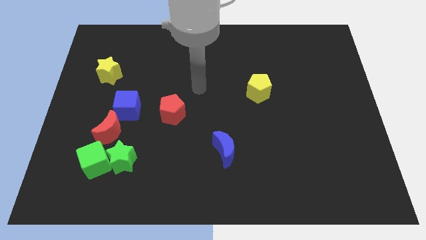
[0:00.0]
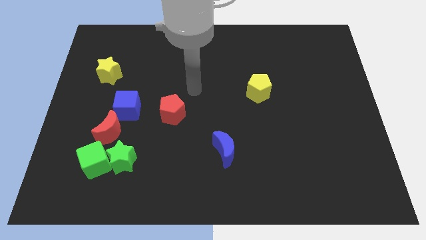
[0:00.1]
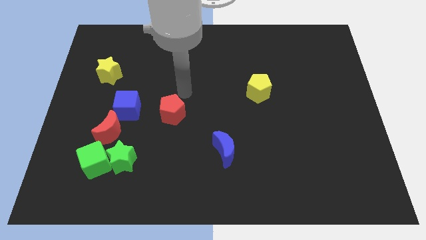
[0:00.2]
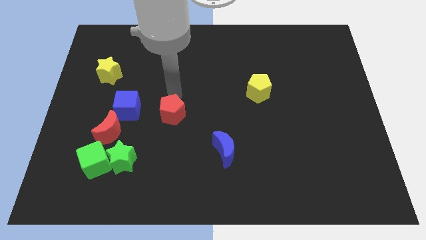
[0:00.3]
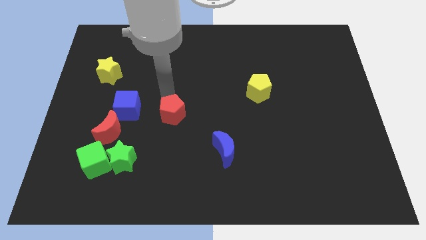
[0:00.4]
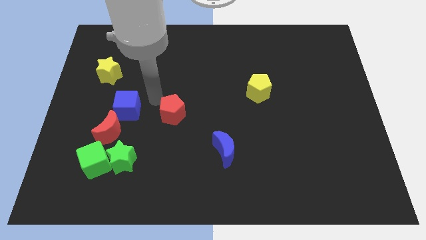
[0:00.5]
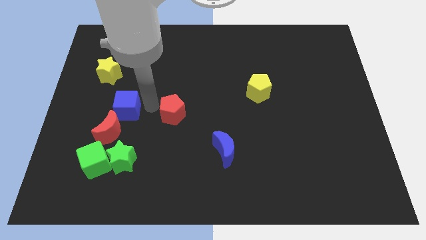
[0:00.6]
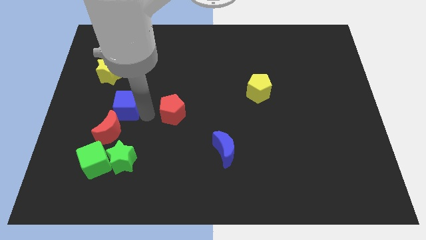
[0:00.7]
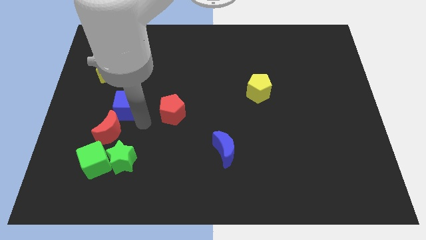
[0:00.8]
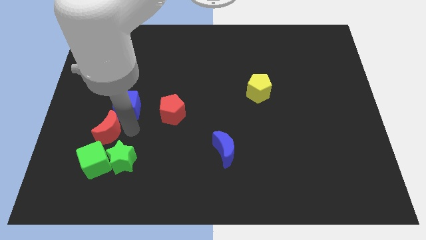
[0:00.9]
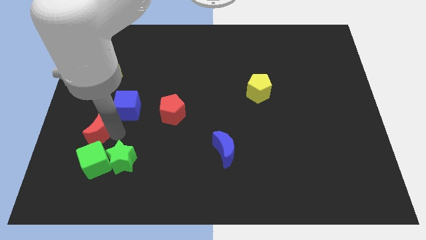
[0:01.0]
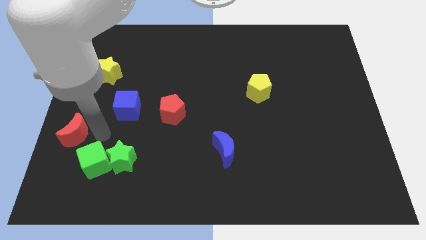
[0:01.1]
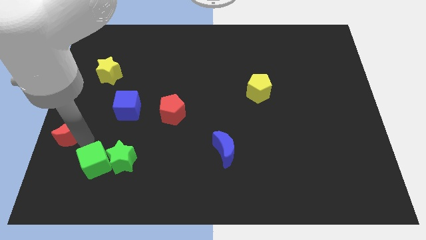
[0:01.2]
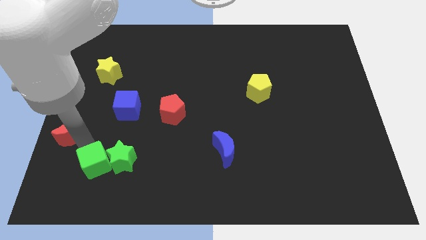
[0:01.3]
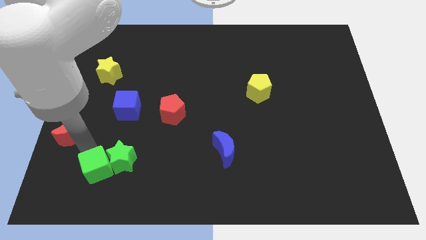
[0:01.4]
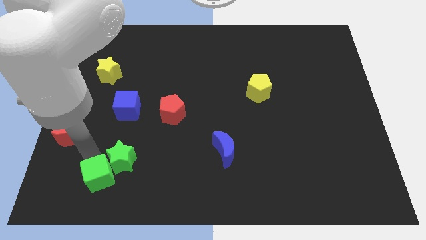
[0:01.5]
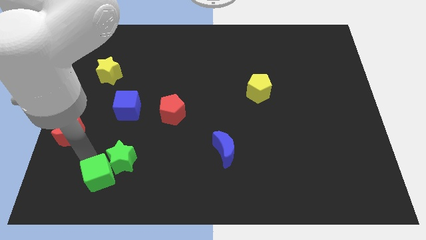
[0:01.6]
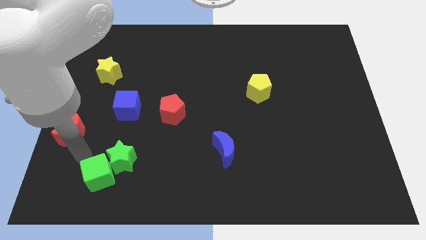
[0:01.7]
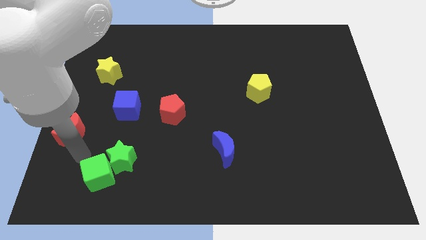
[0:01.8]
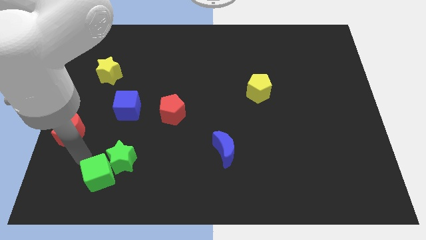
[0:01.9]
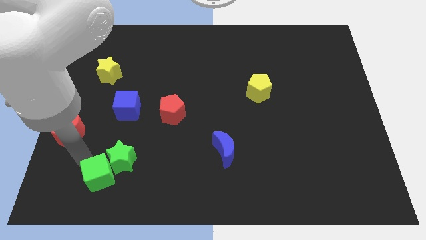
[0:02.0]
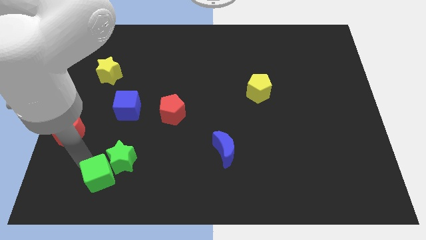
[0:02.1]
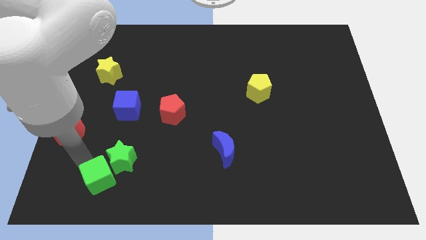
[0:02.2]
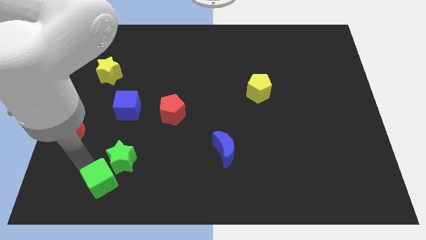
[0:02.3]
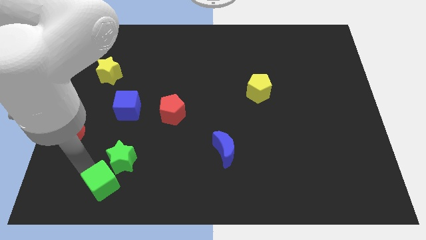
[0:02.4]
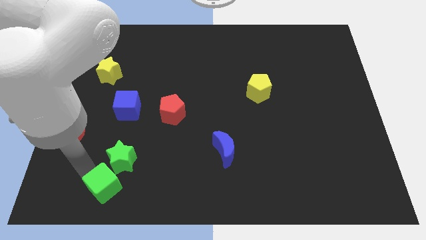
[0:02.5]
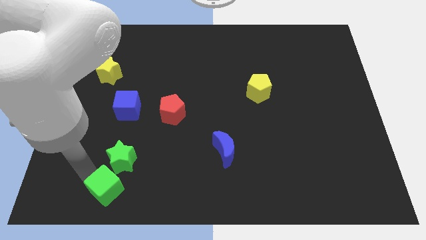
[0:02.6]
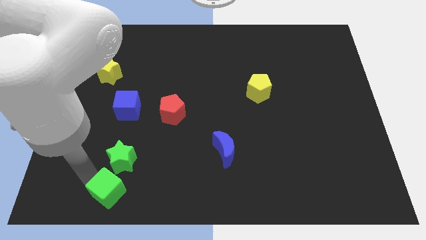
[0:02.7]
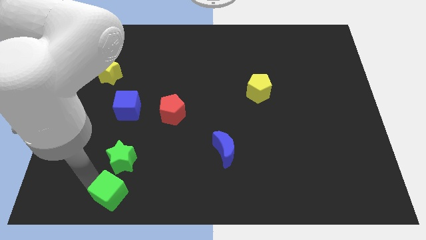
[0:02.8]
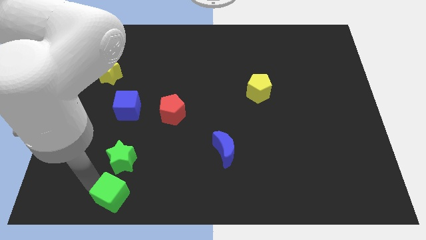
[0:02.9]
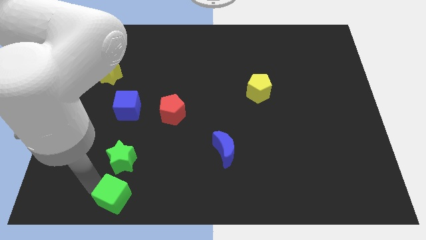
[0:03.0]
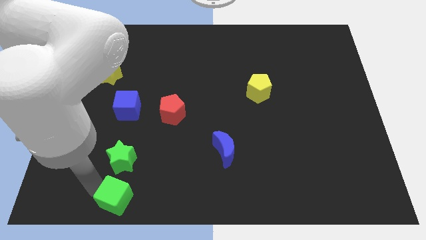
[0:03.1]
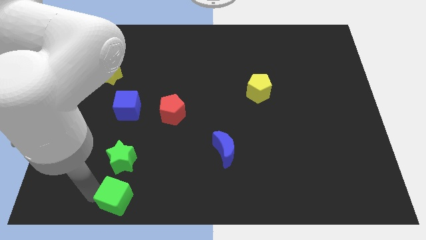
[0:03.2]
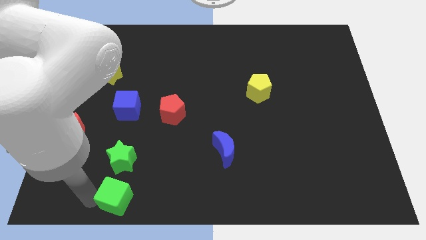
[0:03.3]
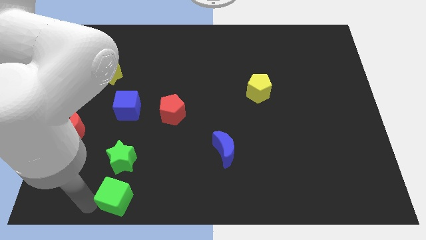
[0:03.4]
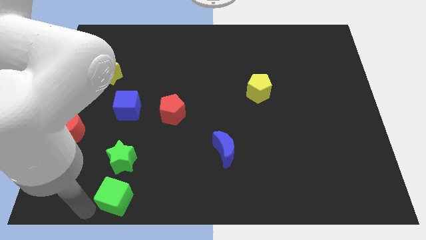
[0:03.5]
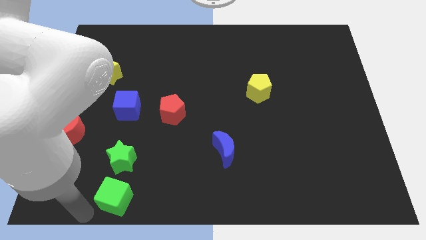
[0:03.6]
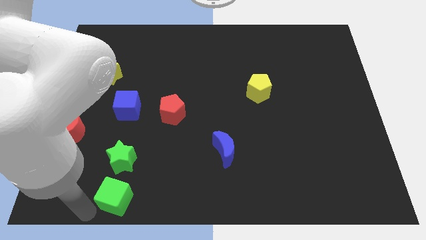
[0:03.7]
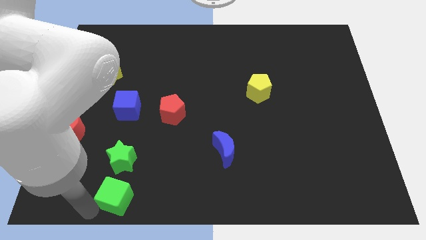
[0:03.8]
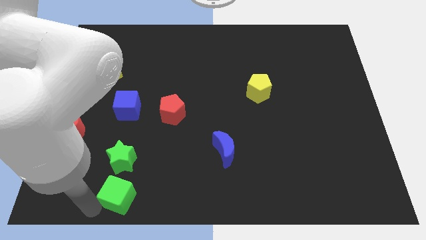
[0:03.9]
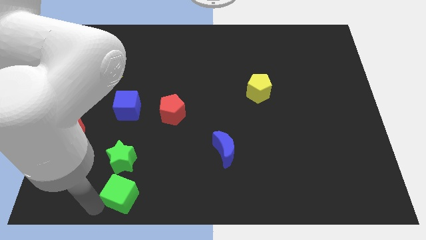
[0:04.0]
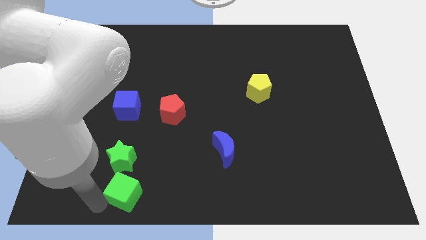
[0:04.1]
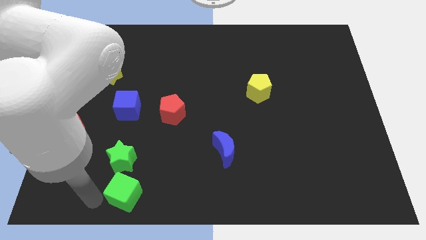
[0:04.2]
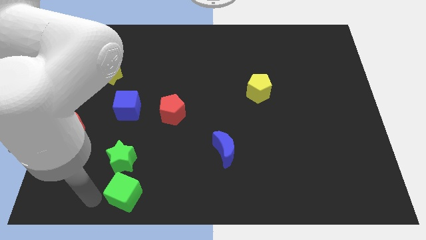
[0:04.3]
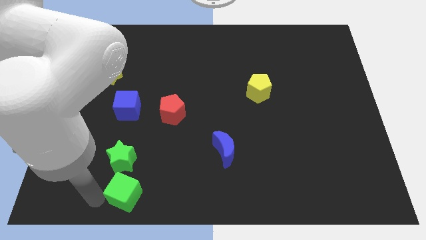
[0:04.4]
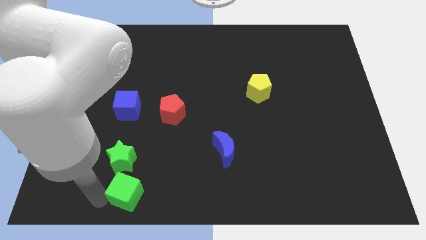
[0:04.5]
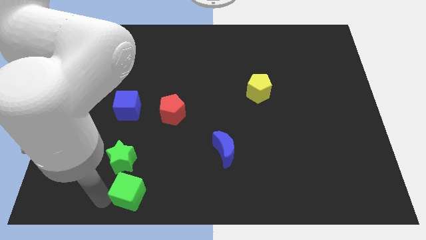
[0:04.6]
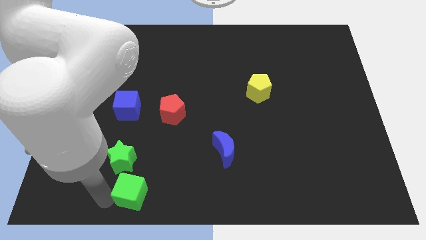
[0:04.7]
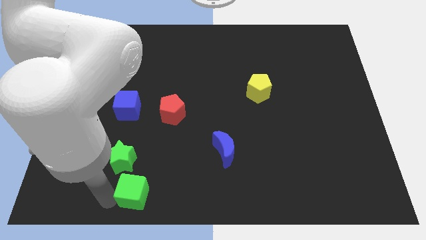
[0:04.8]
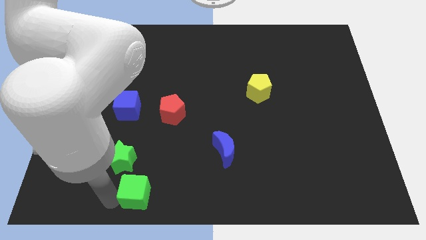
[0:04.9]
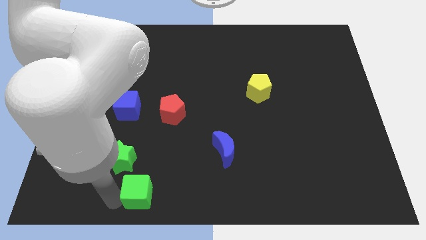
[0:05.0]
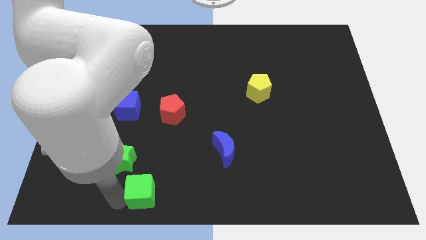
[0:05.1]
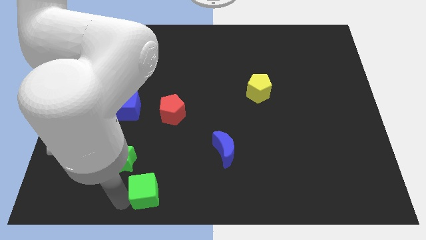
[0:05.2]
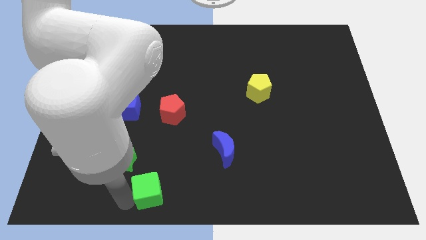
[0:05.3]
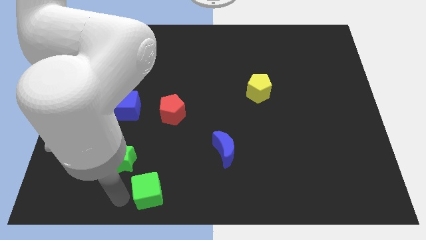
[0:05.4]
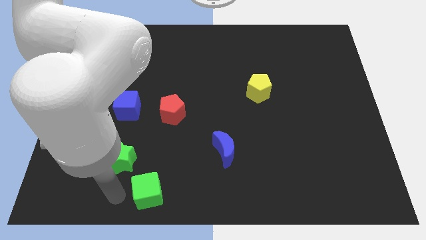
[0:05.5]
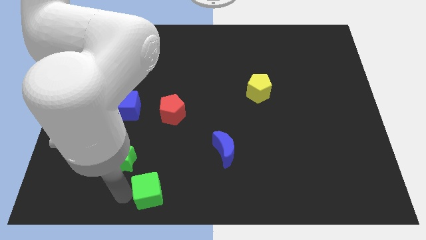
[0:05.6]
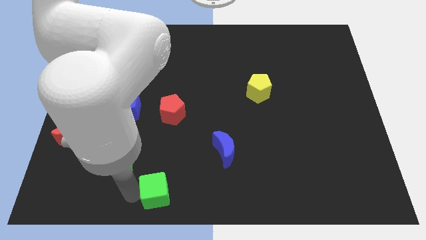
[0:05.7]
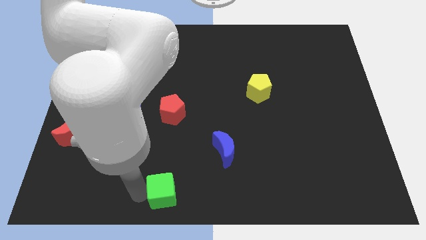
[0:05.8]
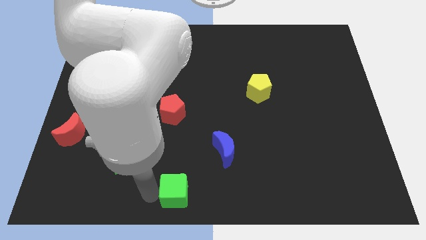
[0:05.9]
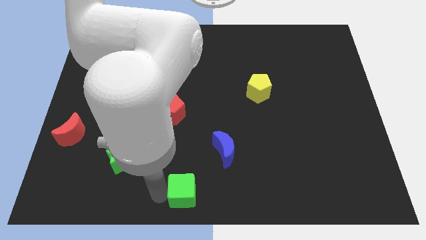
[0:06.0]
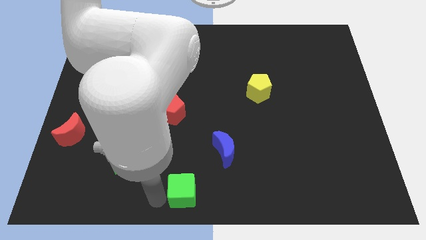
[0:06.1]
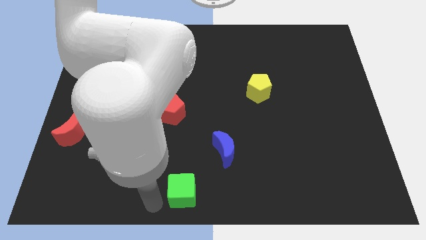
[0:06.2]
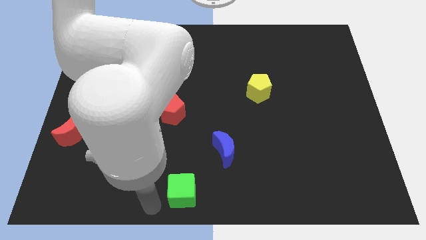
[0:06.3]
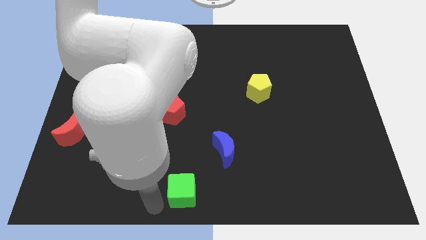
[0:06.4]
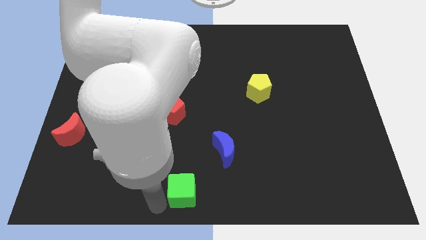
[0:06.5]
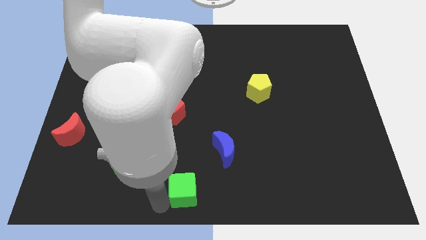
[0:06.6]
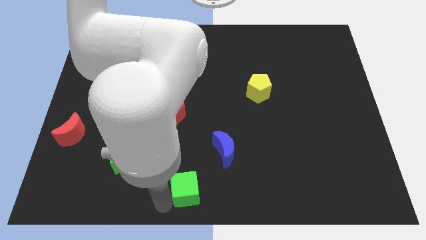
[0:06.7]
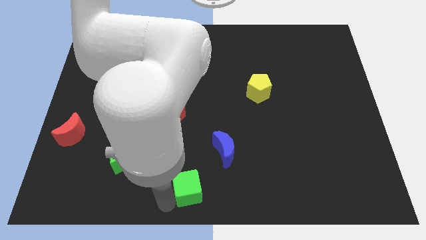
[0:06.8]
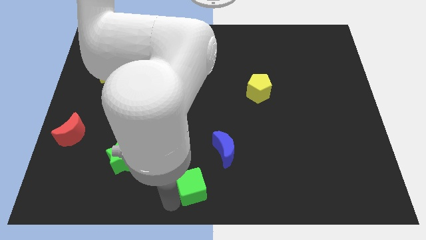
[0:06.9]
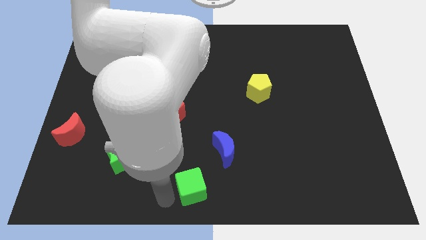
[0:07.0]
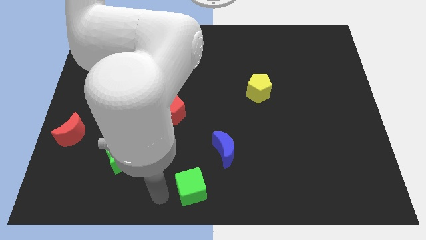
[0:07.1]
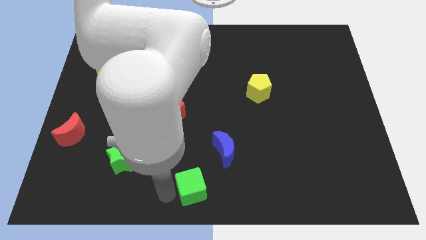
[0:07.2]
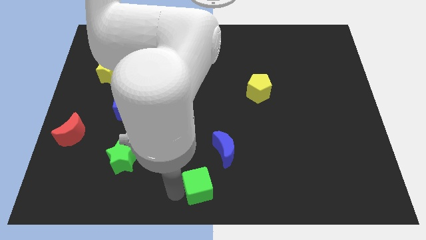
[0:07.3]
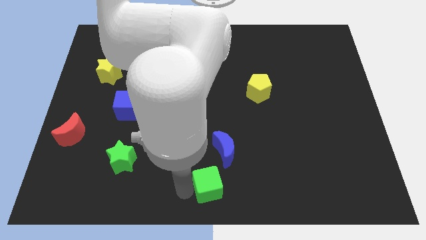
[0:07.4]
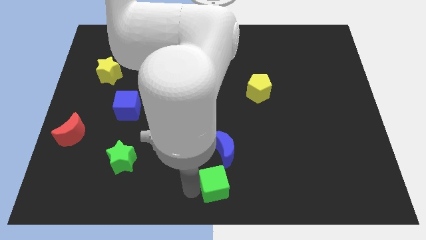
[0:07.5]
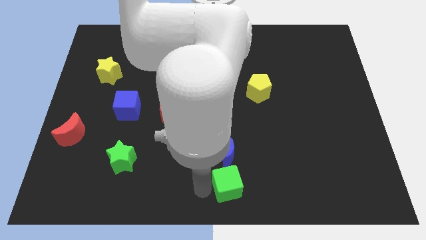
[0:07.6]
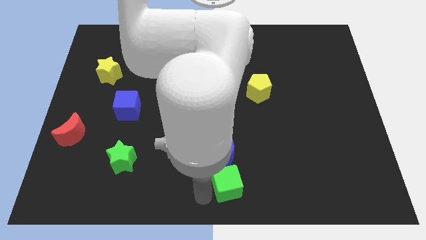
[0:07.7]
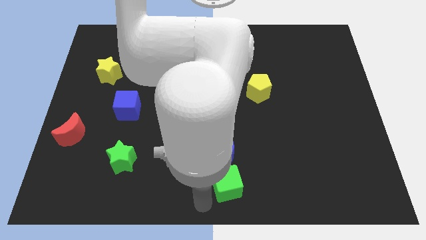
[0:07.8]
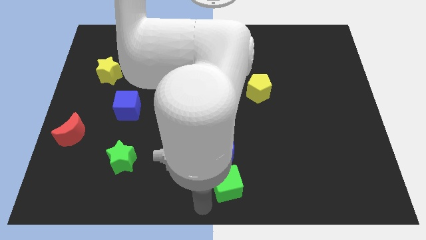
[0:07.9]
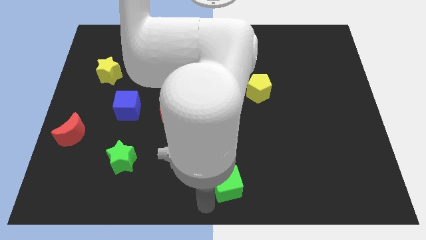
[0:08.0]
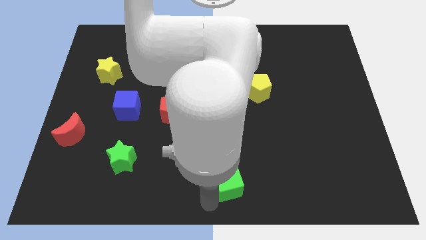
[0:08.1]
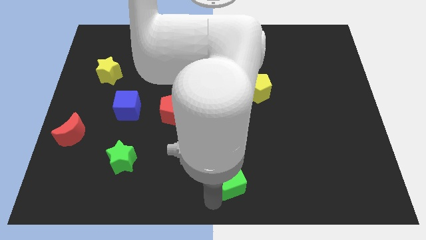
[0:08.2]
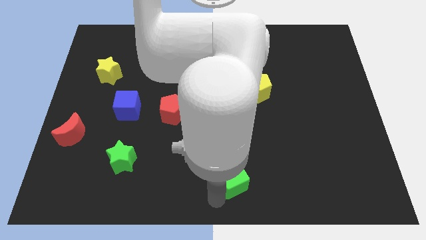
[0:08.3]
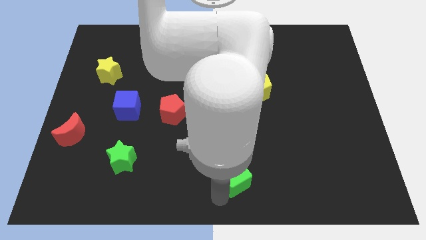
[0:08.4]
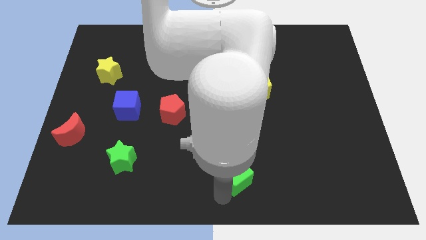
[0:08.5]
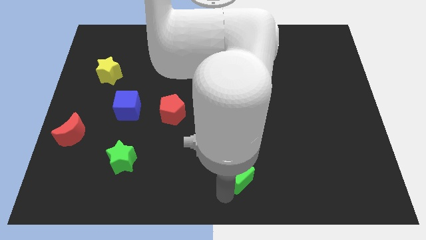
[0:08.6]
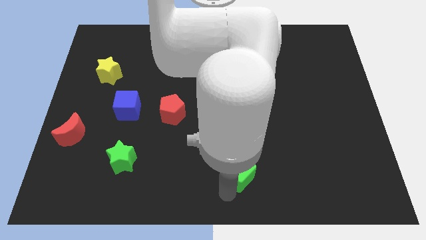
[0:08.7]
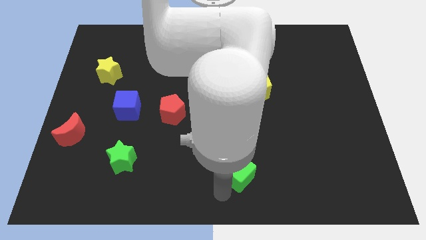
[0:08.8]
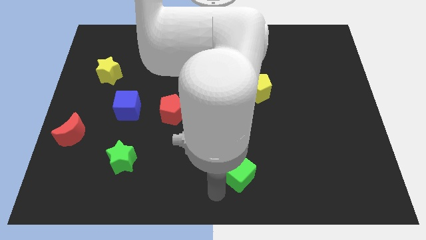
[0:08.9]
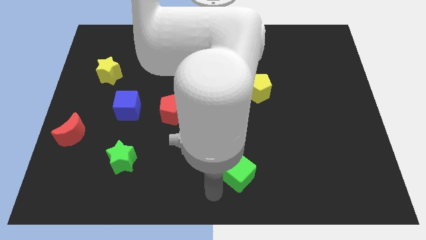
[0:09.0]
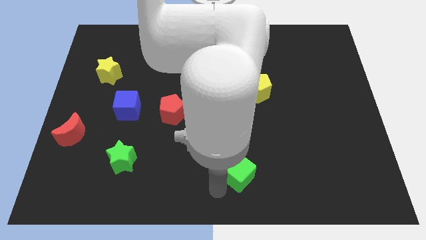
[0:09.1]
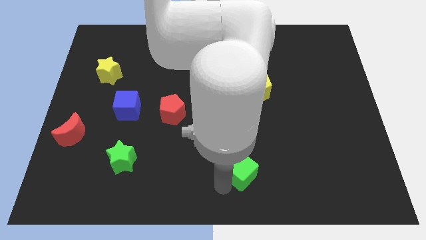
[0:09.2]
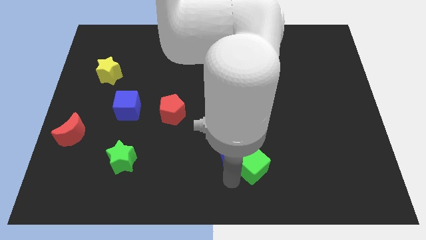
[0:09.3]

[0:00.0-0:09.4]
move the green cube to the right of the blue moon
